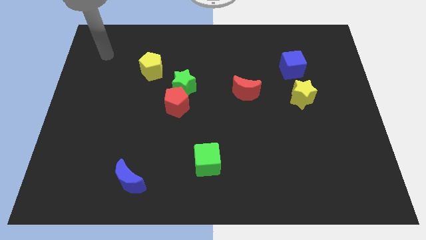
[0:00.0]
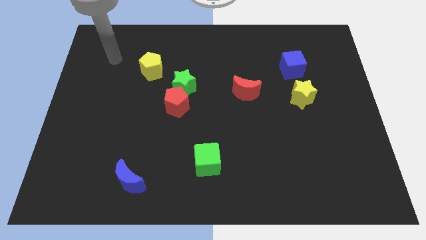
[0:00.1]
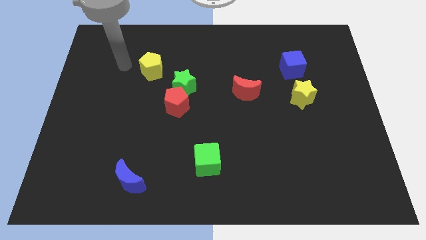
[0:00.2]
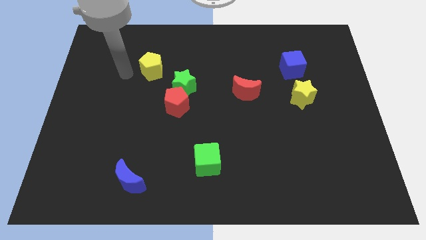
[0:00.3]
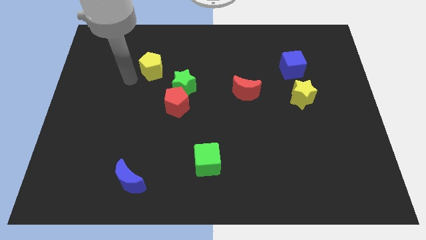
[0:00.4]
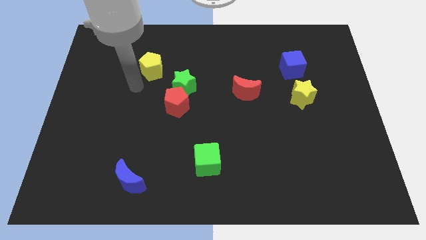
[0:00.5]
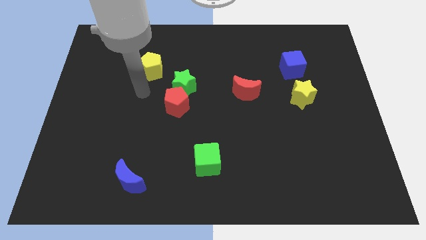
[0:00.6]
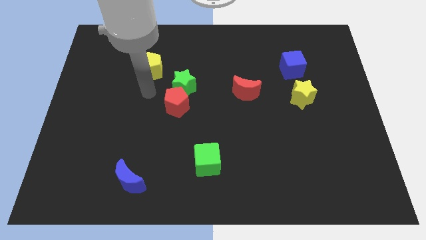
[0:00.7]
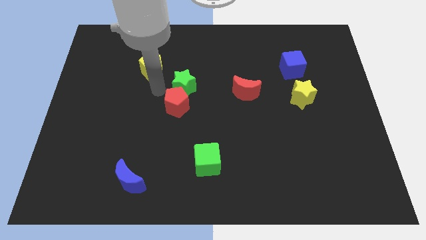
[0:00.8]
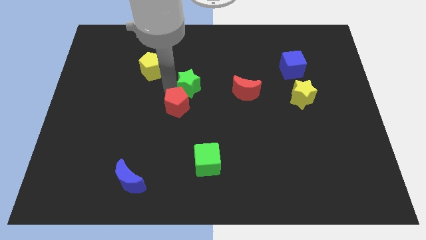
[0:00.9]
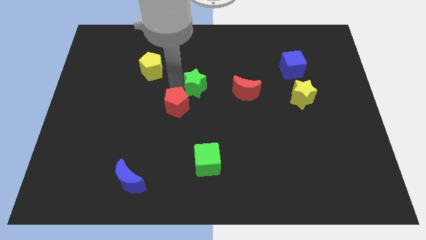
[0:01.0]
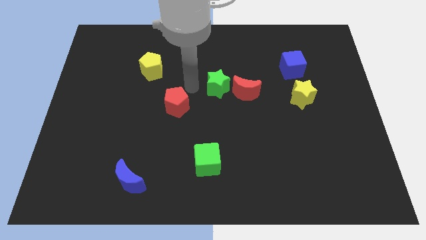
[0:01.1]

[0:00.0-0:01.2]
separate the red pentagon from the green star

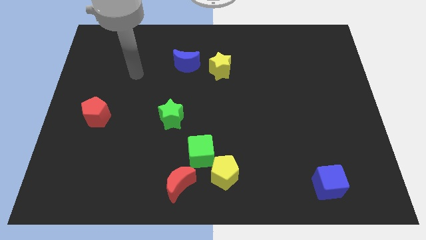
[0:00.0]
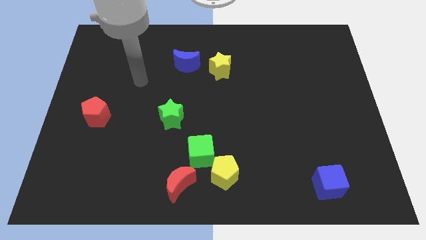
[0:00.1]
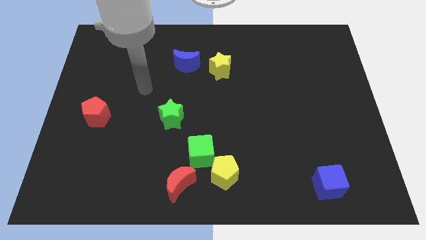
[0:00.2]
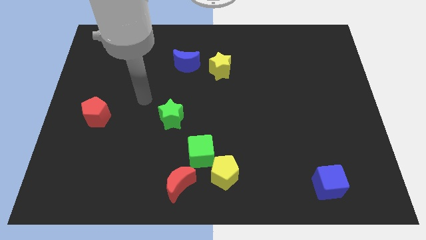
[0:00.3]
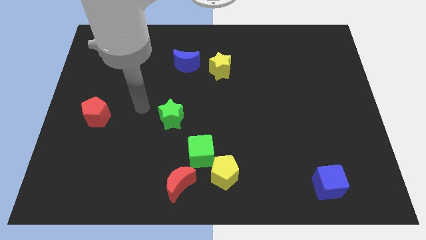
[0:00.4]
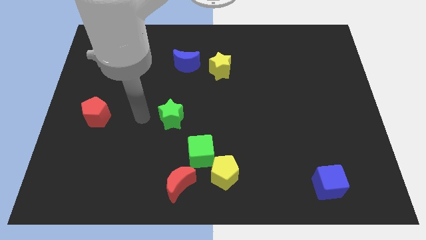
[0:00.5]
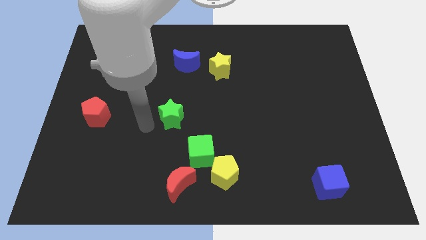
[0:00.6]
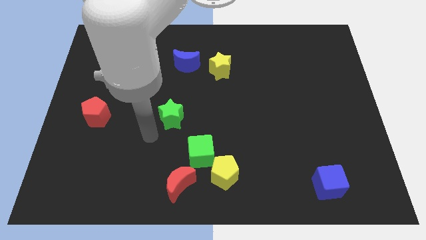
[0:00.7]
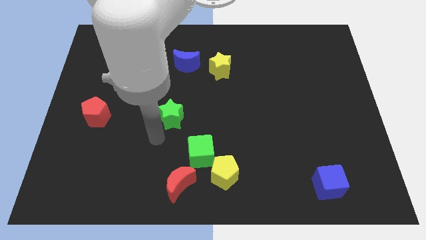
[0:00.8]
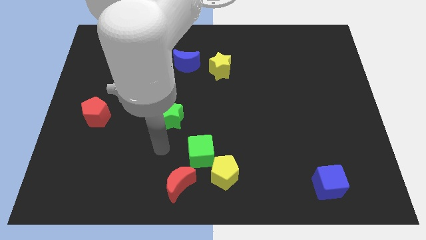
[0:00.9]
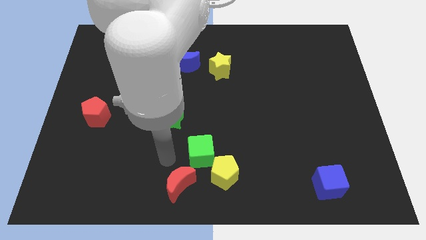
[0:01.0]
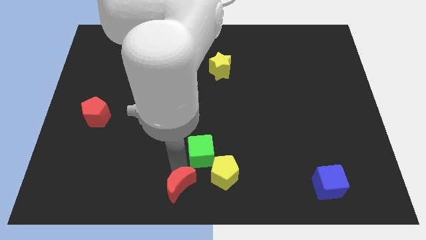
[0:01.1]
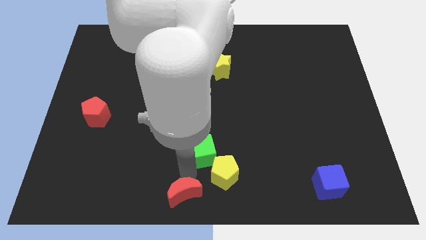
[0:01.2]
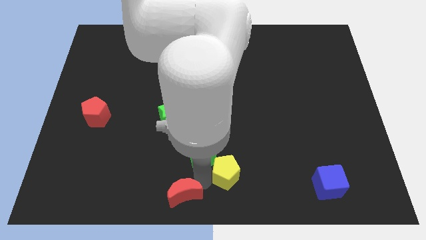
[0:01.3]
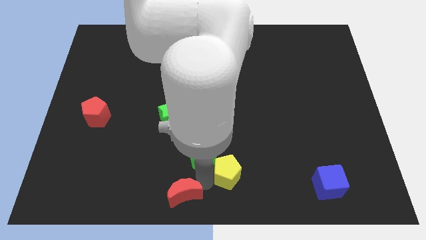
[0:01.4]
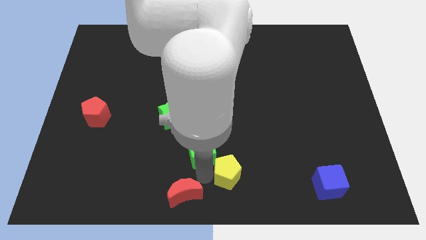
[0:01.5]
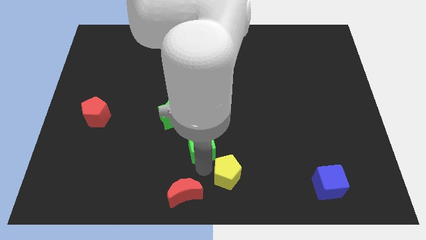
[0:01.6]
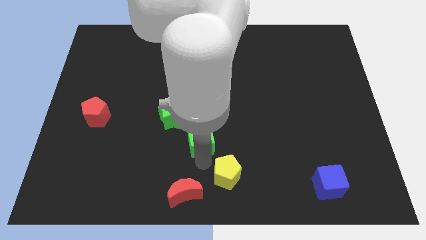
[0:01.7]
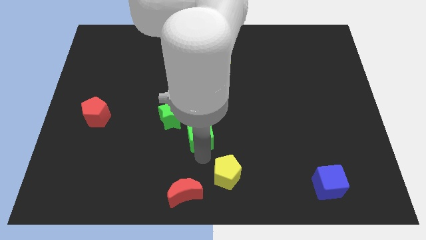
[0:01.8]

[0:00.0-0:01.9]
move the green cube away from the yellow pentagon and red moon

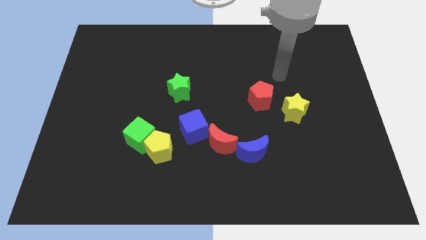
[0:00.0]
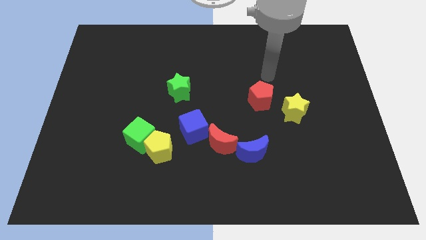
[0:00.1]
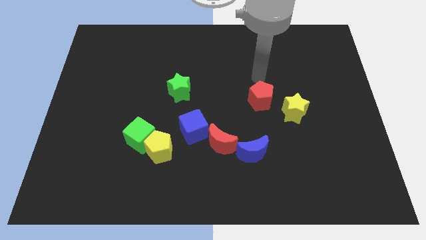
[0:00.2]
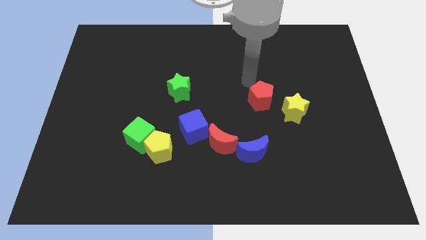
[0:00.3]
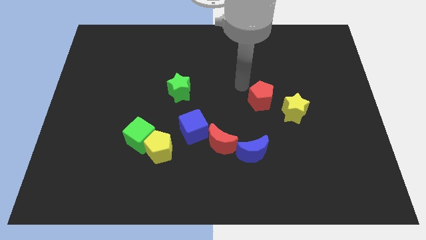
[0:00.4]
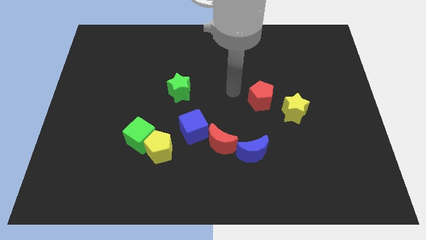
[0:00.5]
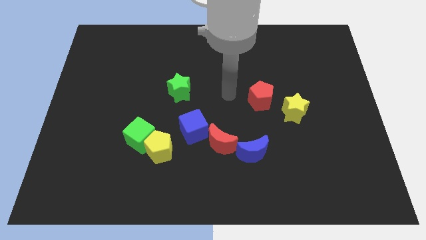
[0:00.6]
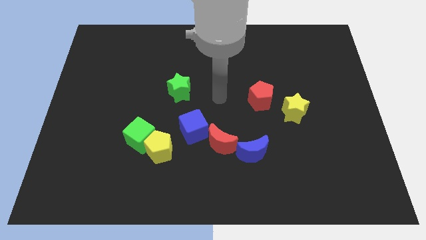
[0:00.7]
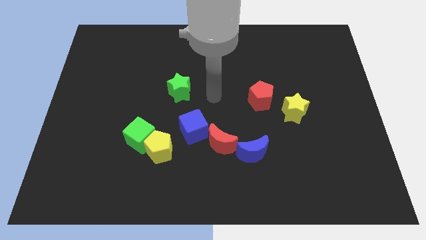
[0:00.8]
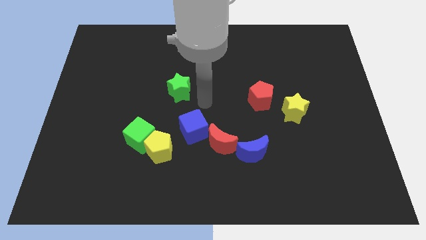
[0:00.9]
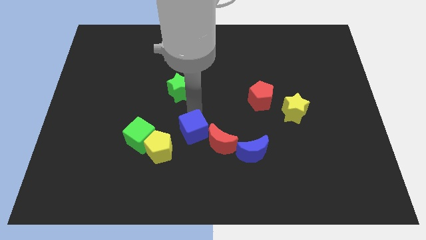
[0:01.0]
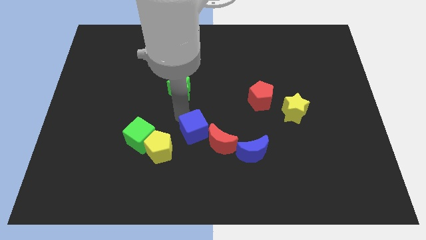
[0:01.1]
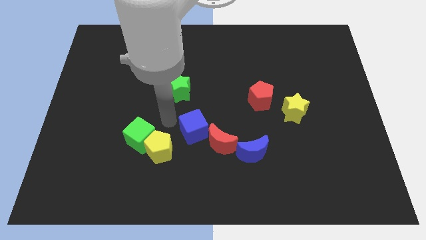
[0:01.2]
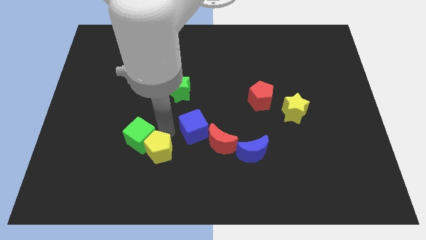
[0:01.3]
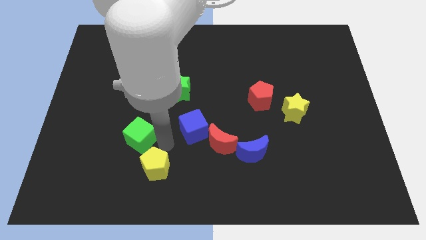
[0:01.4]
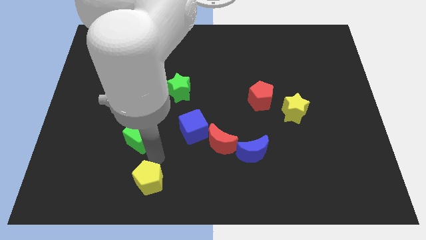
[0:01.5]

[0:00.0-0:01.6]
pull the green cube apart from the yellow pentagon

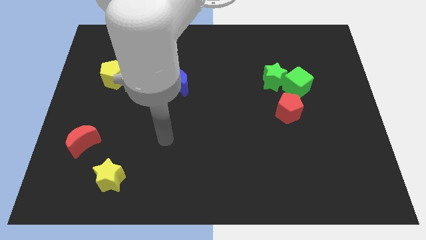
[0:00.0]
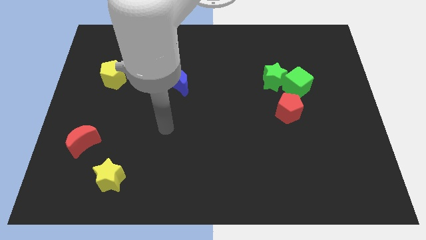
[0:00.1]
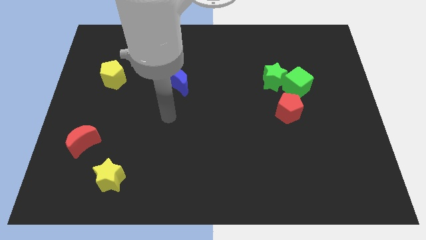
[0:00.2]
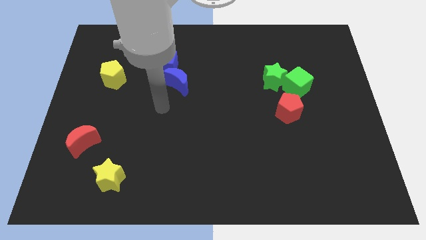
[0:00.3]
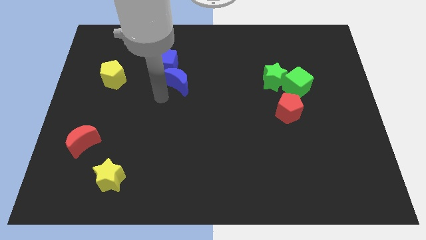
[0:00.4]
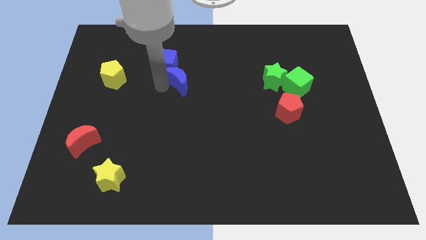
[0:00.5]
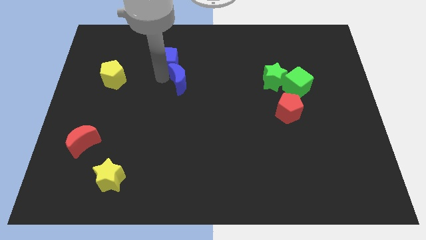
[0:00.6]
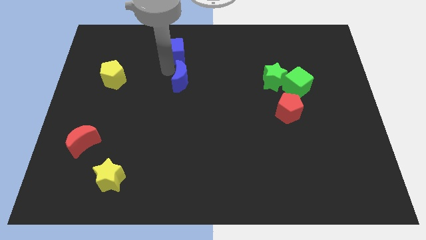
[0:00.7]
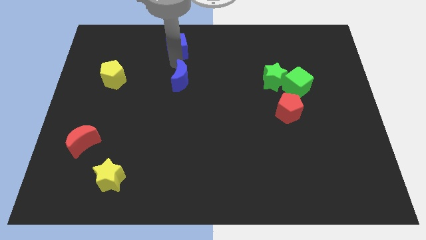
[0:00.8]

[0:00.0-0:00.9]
pull the blue moon apart from the blue cube

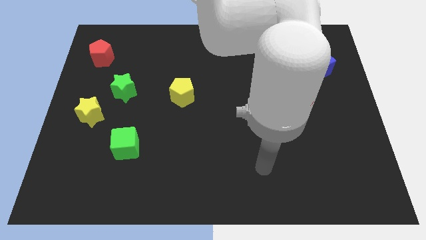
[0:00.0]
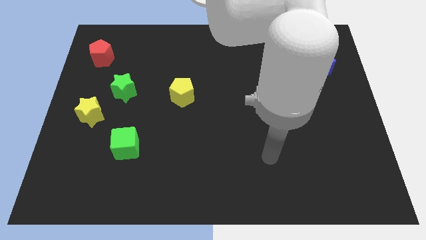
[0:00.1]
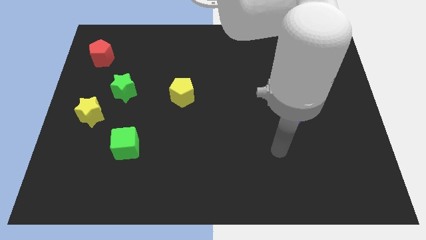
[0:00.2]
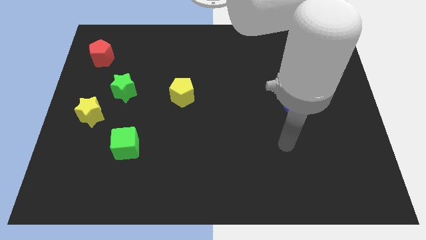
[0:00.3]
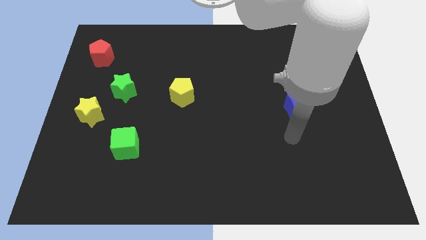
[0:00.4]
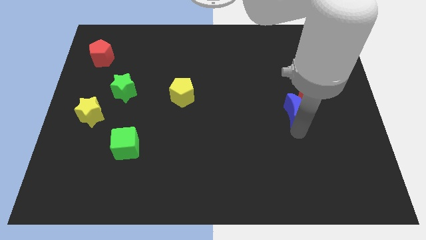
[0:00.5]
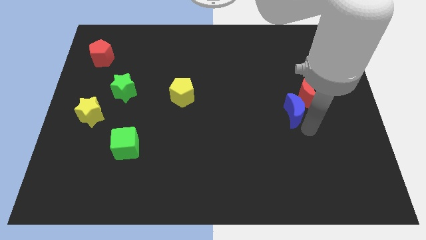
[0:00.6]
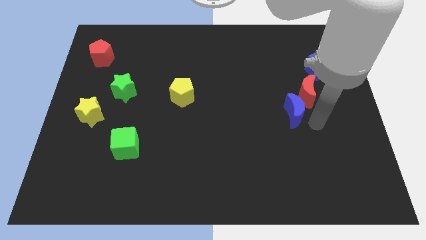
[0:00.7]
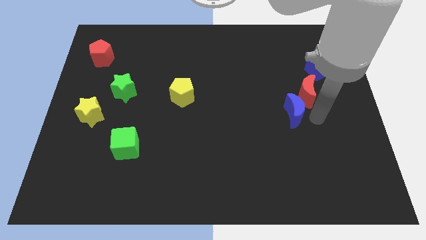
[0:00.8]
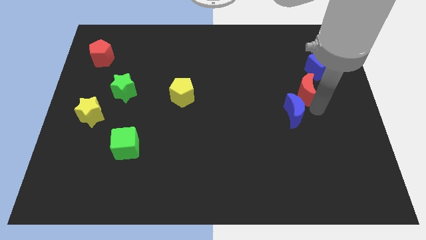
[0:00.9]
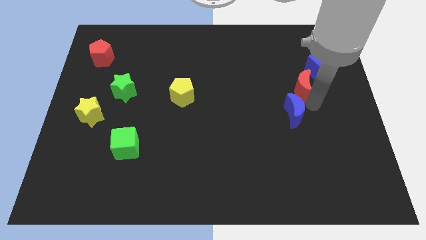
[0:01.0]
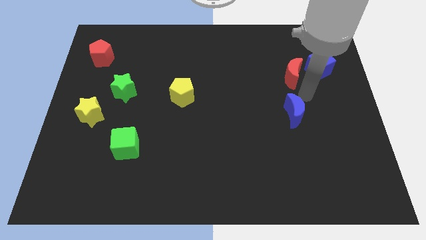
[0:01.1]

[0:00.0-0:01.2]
separate the blue moon from the red moon

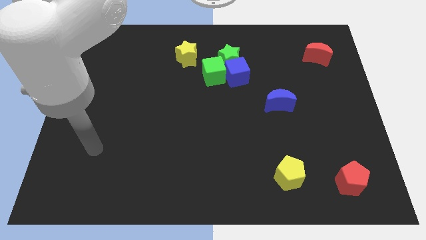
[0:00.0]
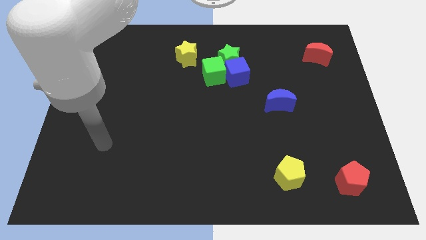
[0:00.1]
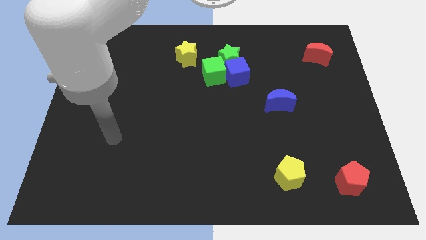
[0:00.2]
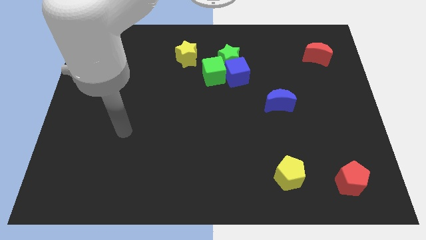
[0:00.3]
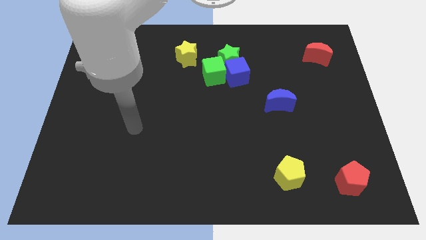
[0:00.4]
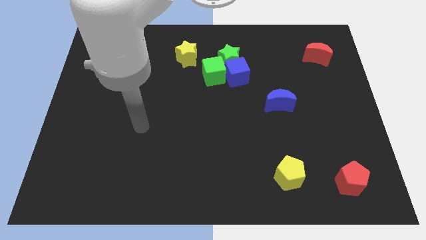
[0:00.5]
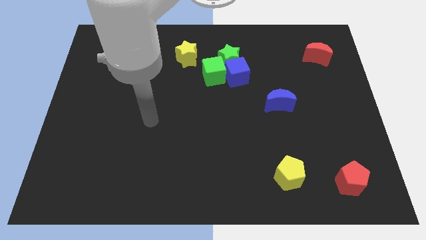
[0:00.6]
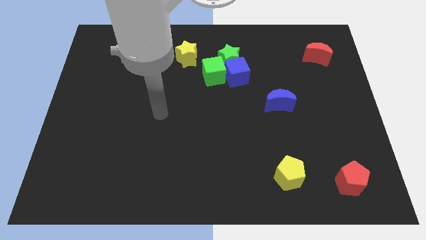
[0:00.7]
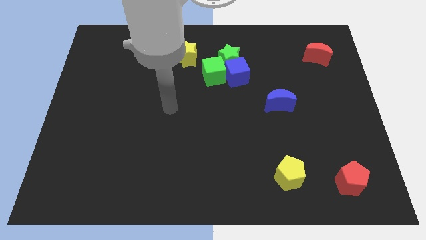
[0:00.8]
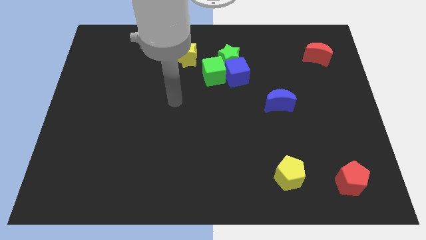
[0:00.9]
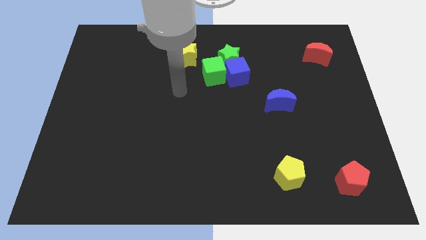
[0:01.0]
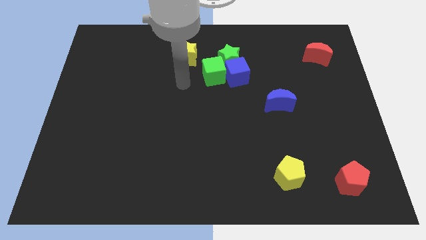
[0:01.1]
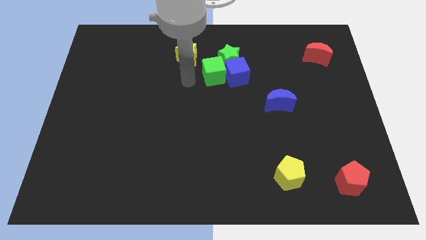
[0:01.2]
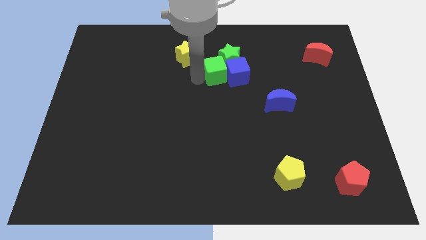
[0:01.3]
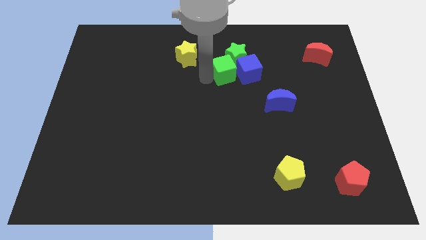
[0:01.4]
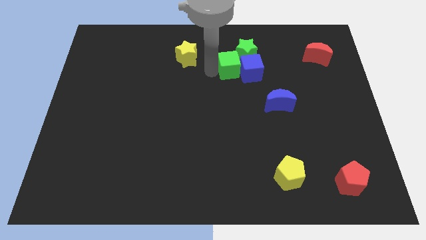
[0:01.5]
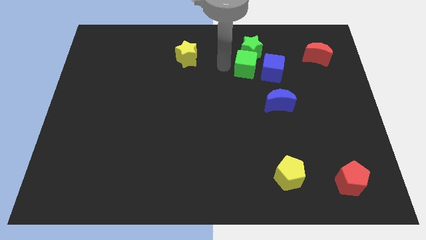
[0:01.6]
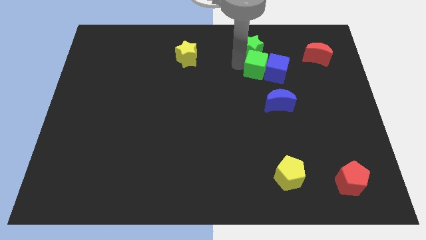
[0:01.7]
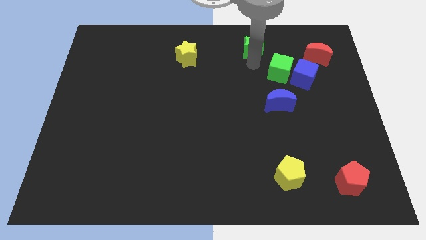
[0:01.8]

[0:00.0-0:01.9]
move the blue cube away from the green star and green cube

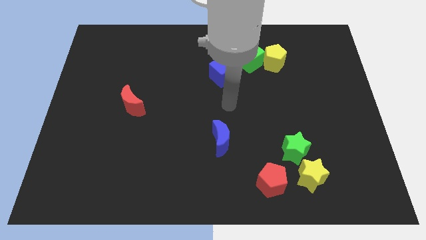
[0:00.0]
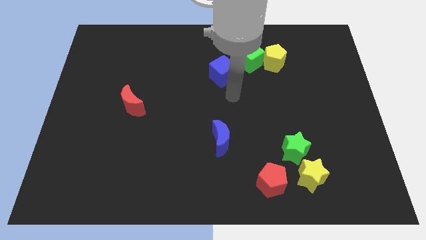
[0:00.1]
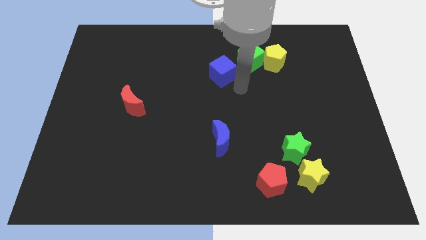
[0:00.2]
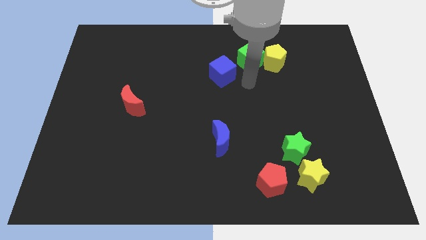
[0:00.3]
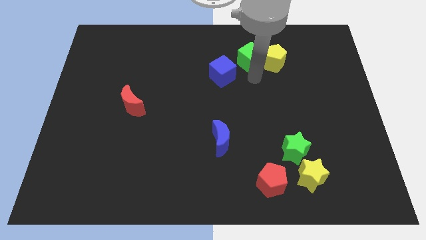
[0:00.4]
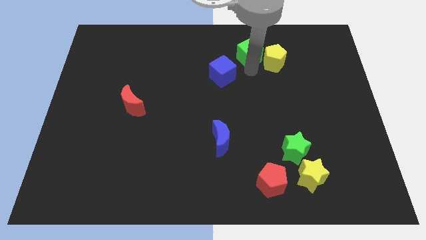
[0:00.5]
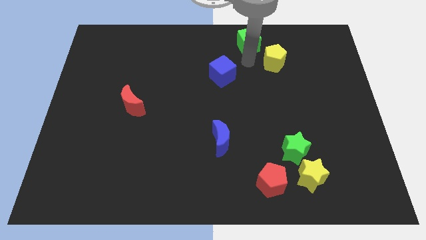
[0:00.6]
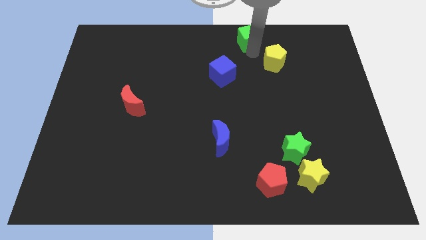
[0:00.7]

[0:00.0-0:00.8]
separate the yellow pentagon from the green cube
